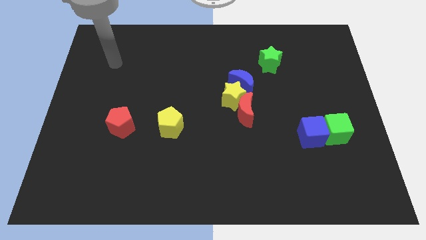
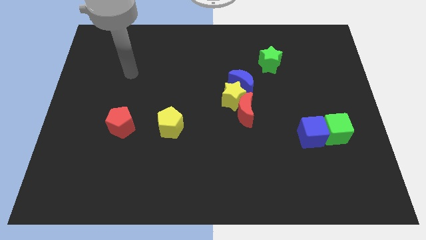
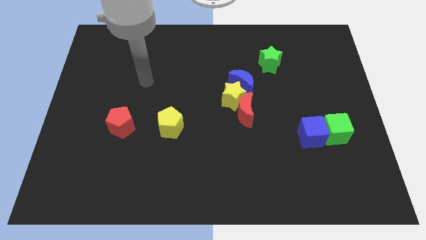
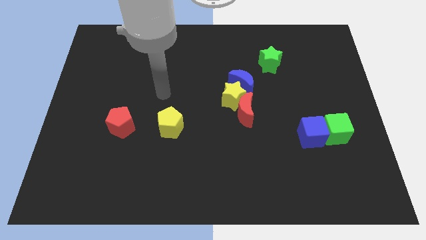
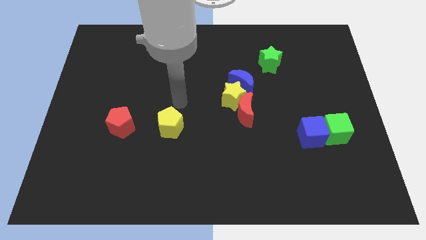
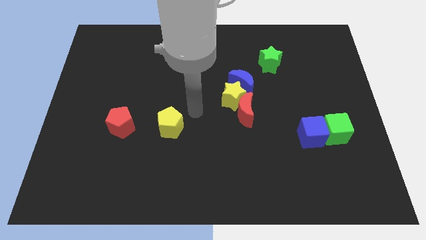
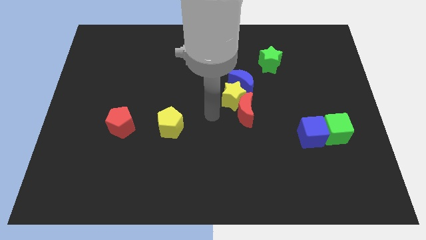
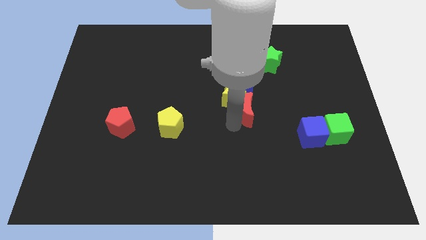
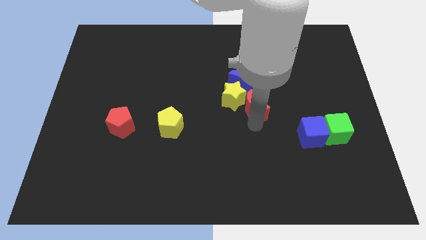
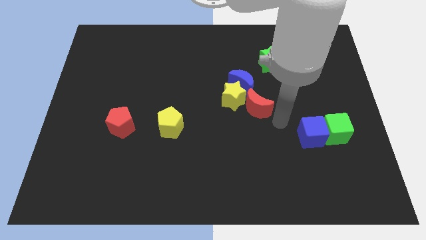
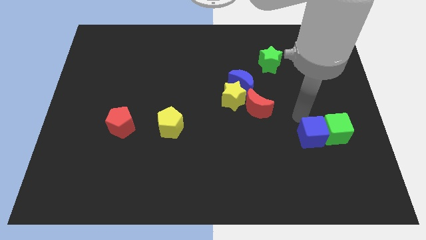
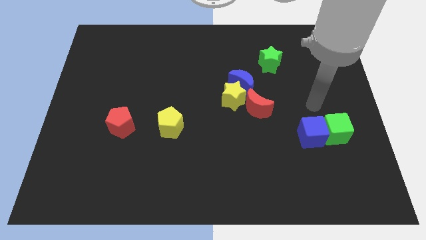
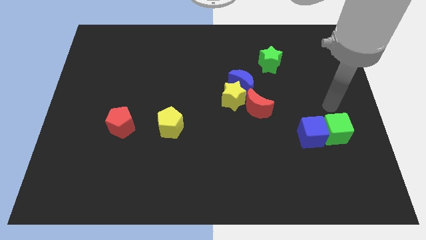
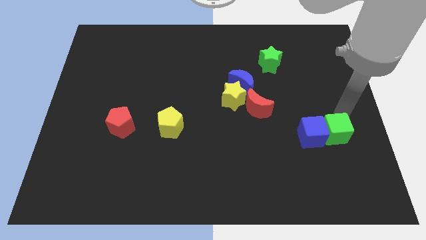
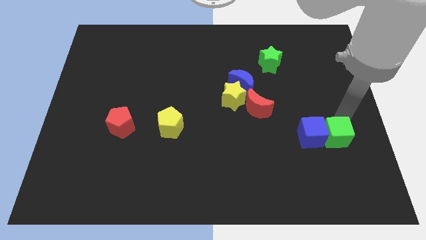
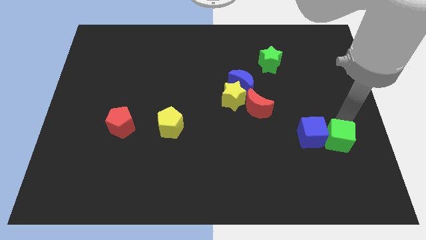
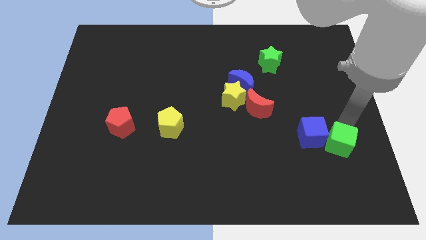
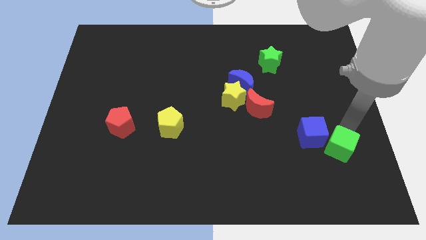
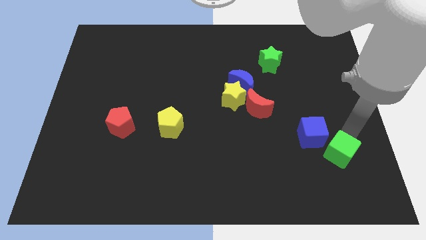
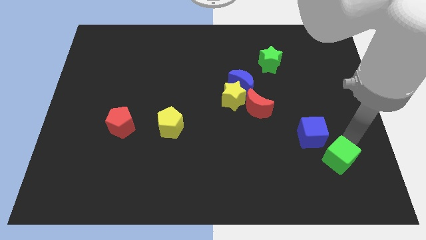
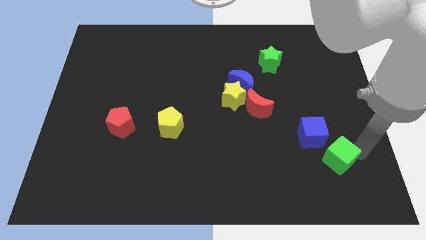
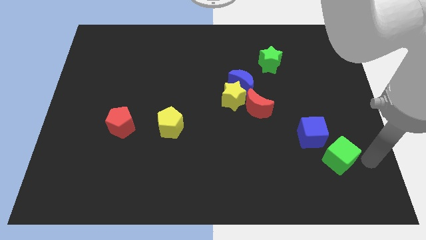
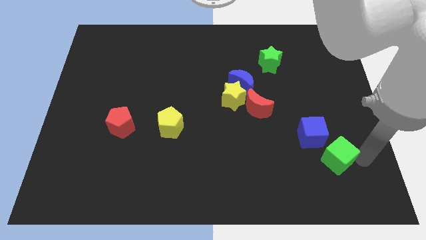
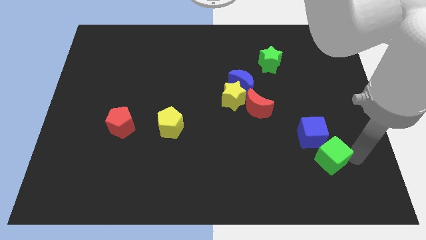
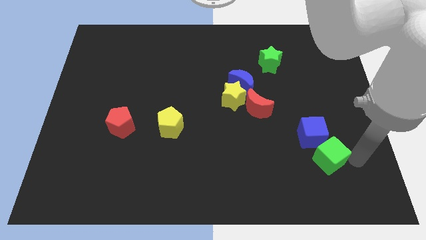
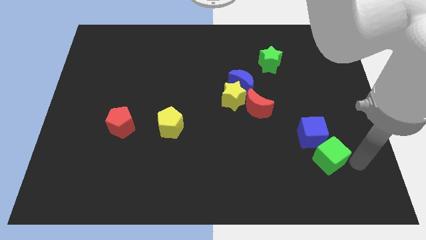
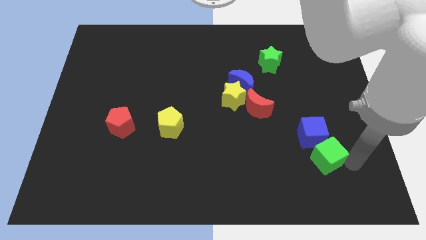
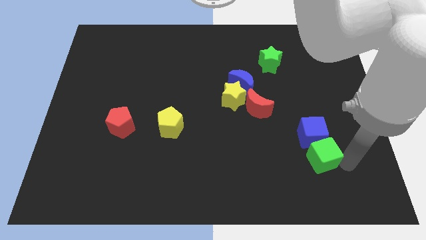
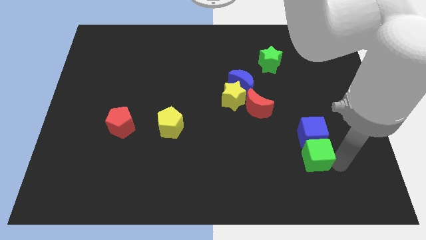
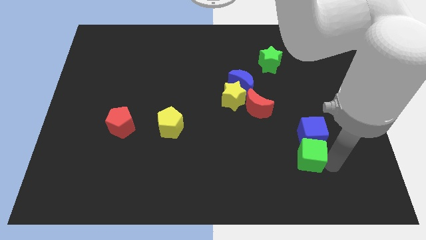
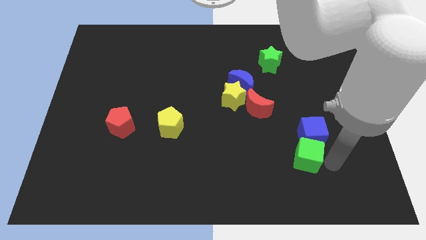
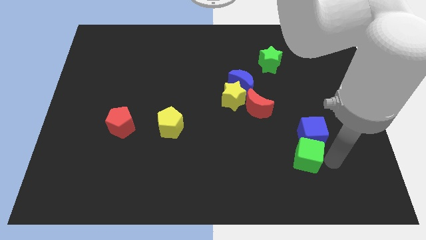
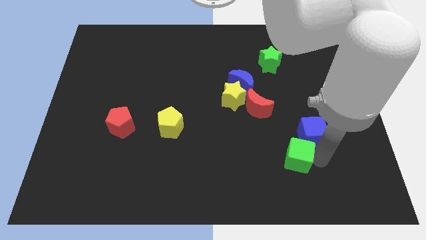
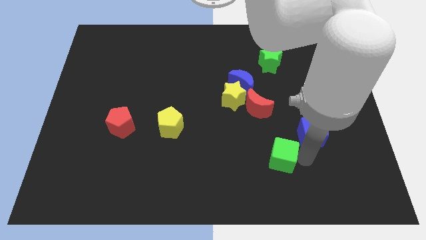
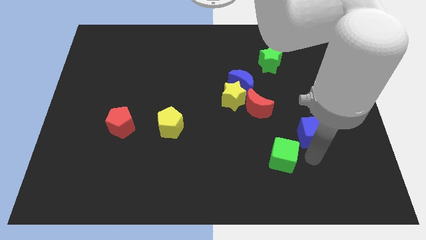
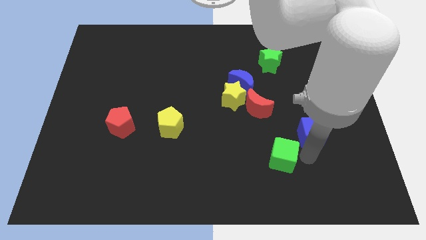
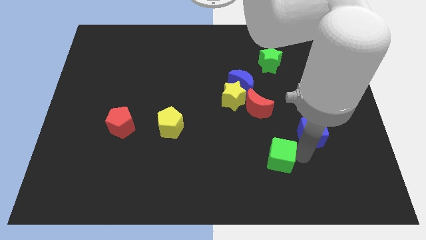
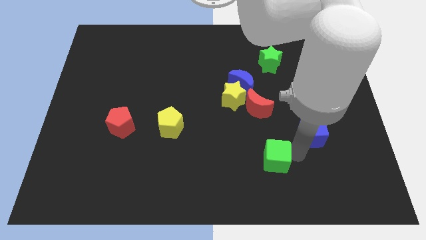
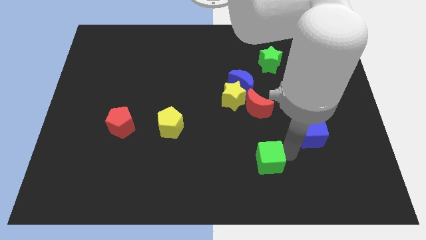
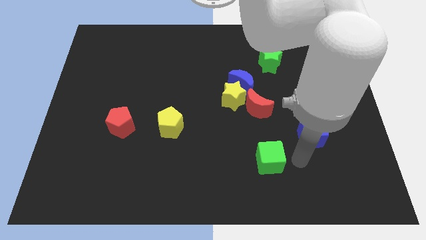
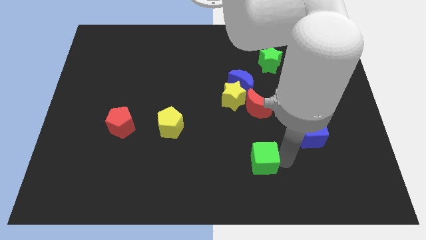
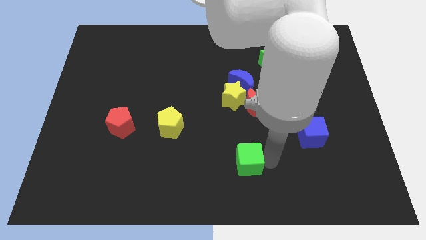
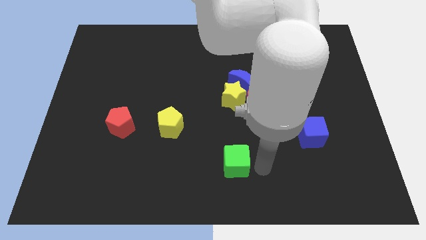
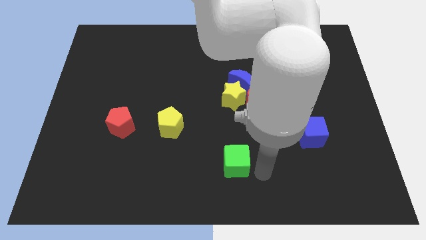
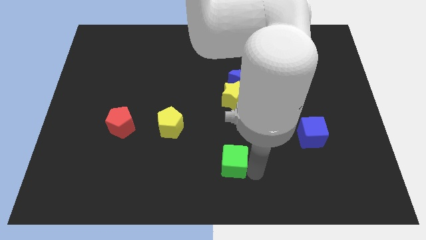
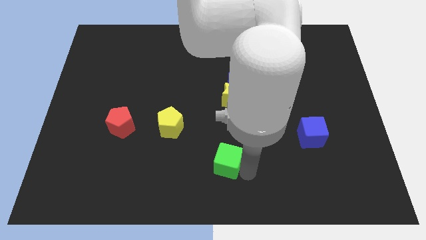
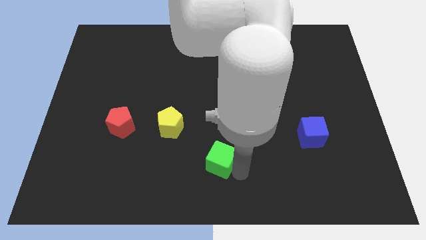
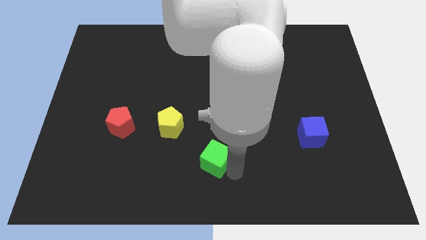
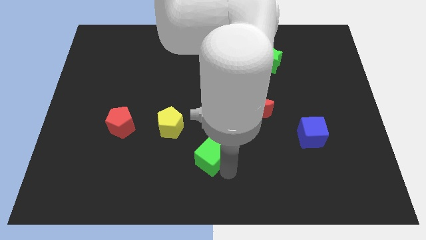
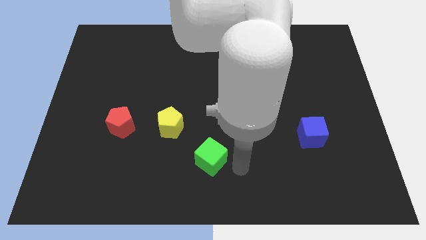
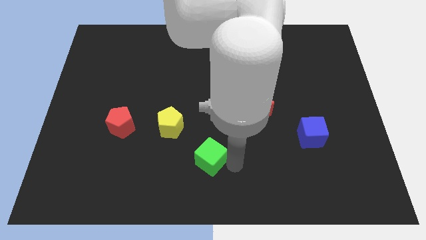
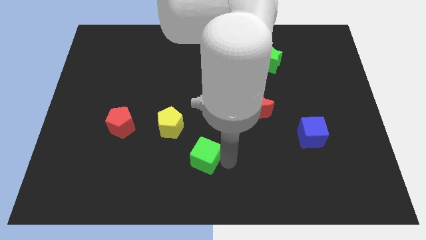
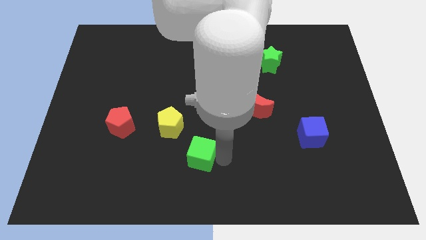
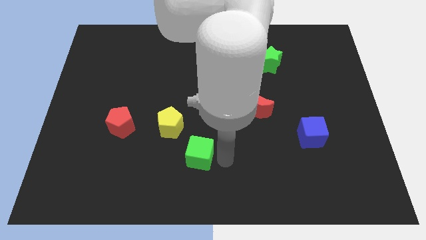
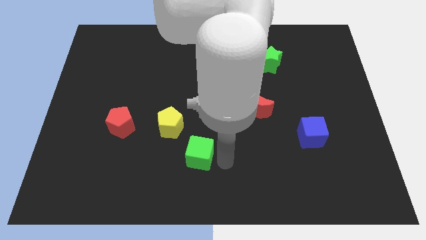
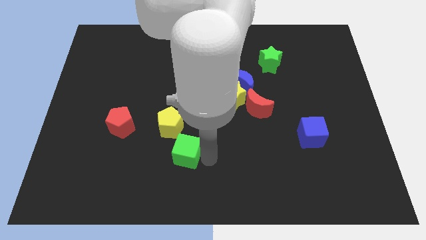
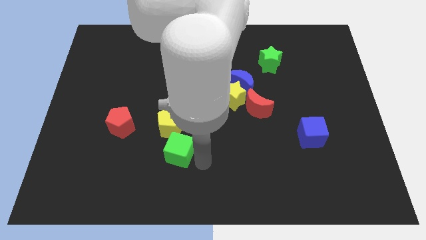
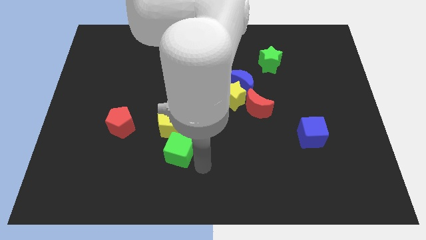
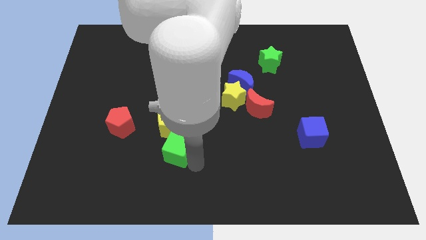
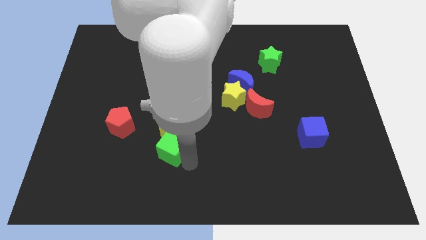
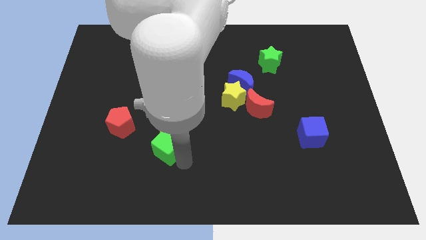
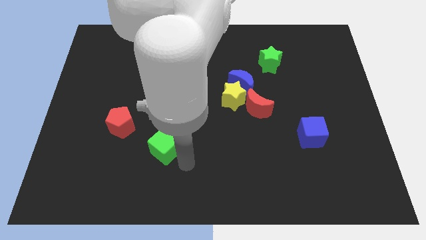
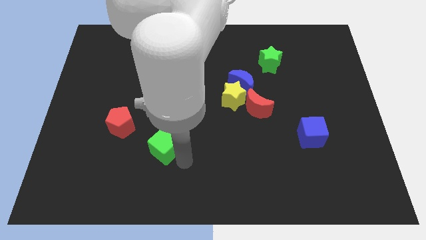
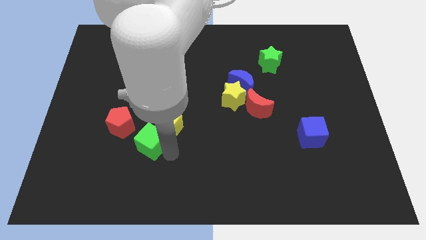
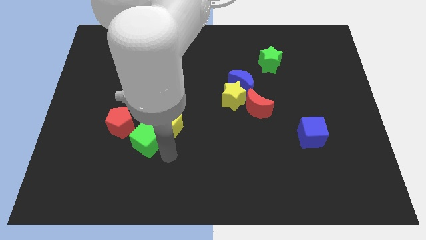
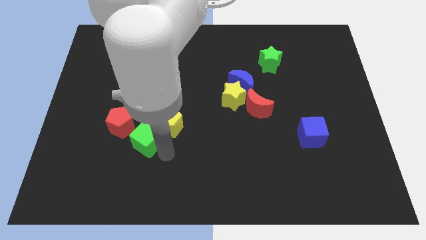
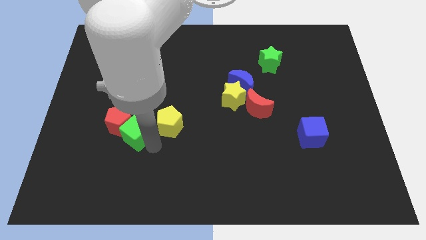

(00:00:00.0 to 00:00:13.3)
move the green cube towards the red pentagon
